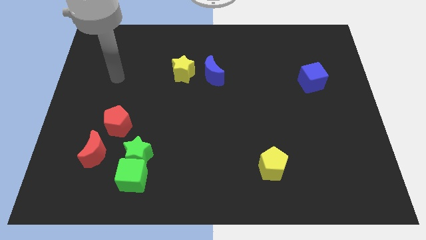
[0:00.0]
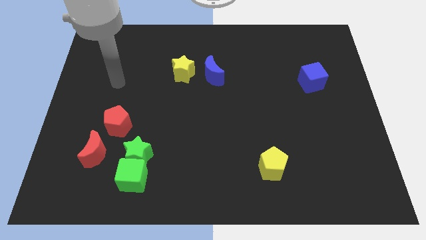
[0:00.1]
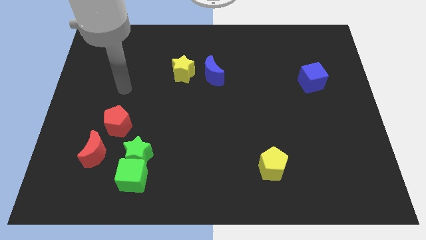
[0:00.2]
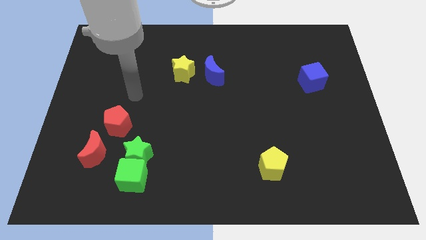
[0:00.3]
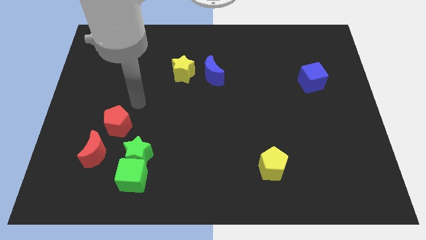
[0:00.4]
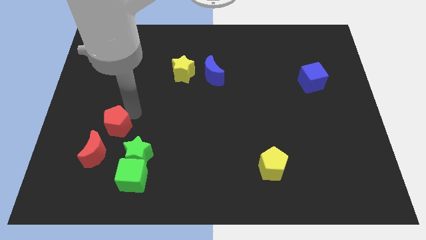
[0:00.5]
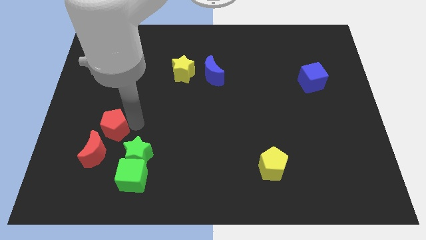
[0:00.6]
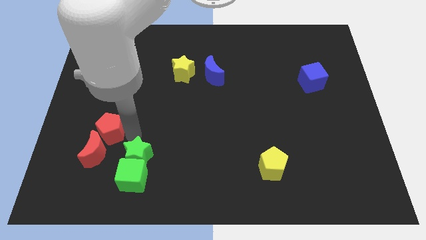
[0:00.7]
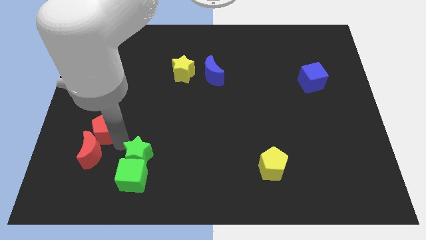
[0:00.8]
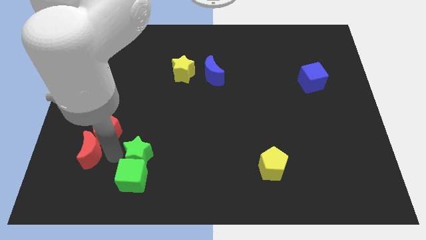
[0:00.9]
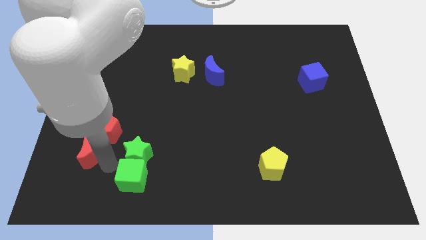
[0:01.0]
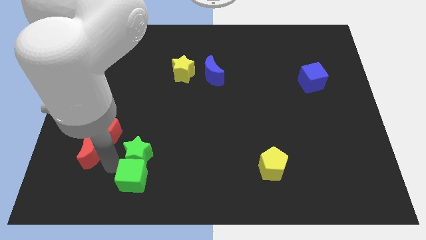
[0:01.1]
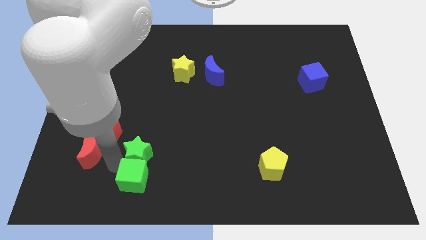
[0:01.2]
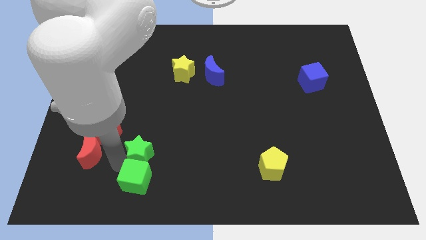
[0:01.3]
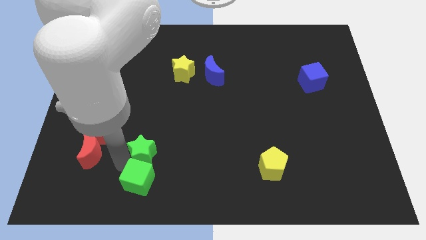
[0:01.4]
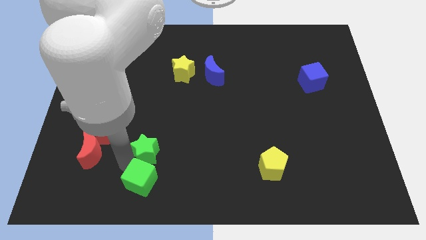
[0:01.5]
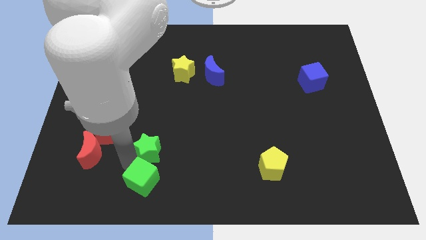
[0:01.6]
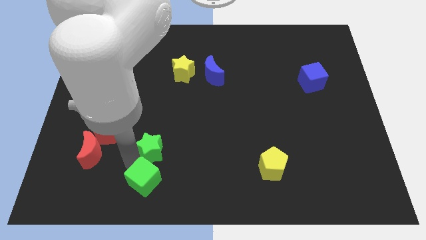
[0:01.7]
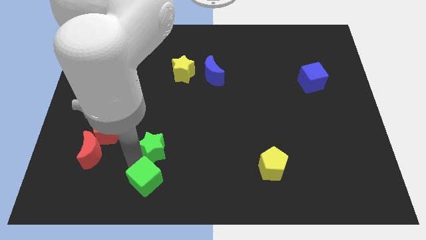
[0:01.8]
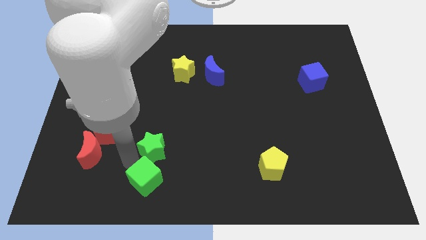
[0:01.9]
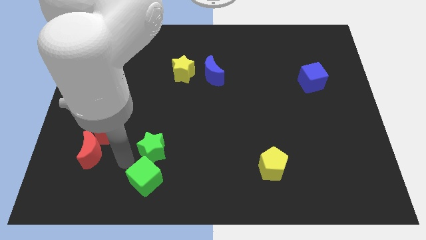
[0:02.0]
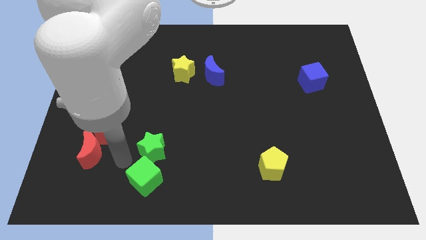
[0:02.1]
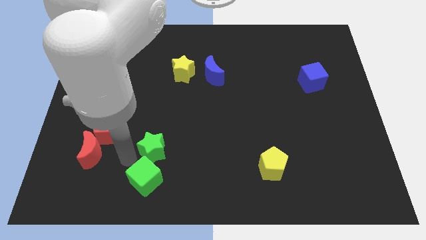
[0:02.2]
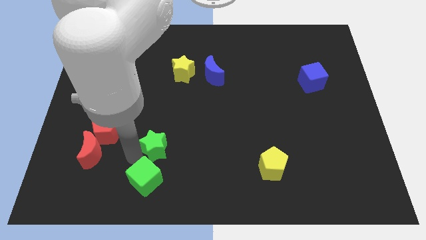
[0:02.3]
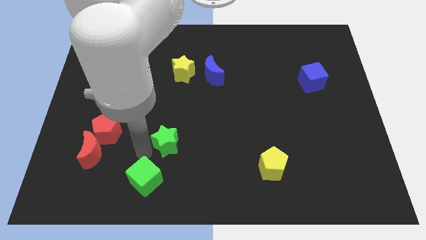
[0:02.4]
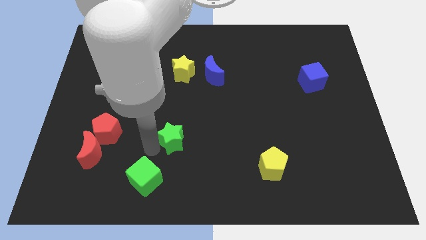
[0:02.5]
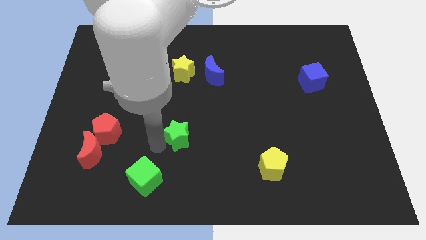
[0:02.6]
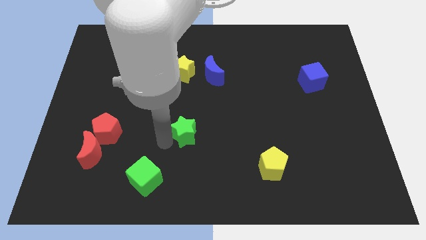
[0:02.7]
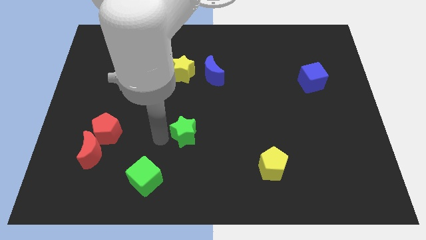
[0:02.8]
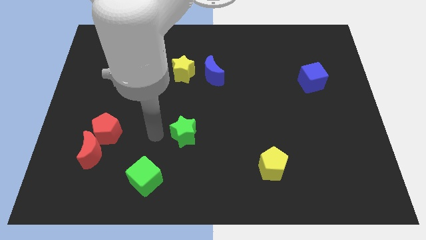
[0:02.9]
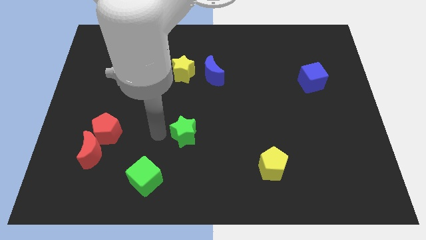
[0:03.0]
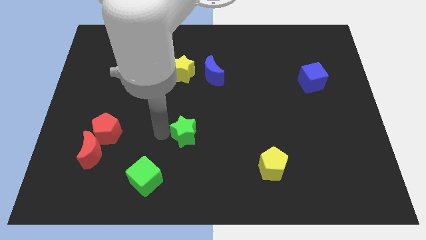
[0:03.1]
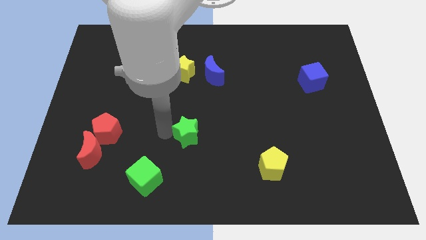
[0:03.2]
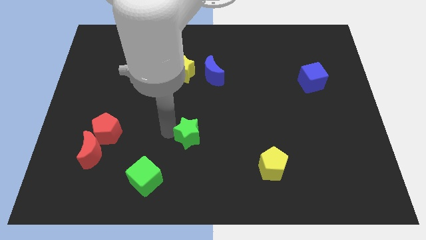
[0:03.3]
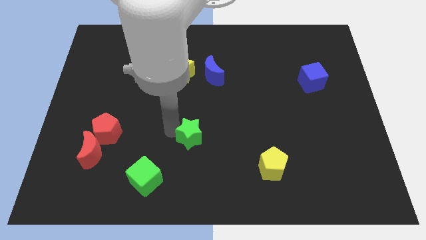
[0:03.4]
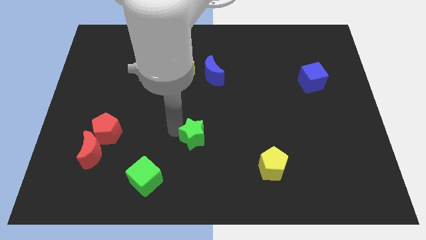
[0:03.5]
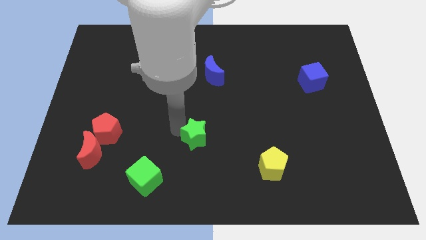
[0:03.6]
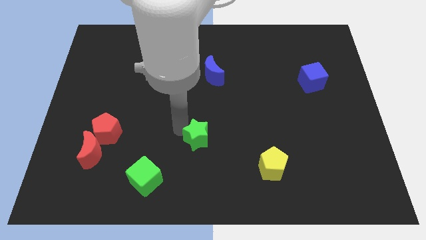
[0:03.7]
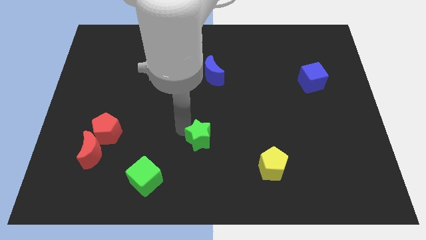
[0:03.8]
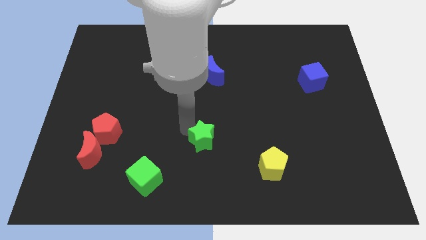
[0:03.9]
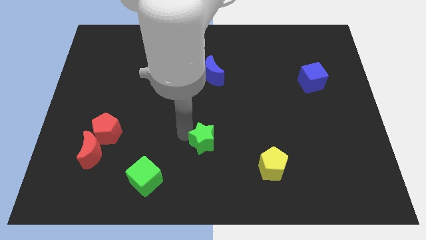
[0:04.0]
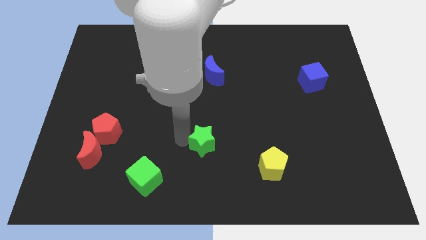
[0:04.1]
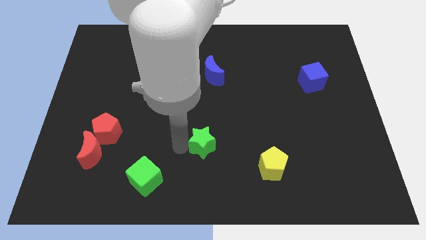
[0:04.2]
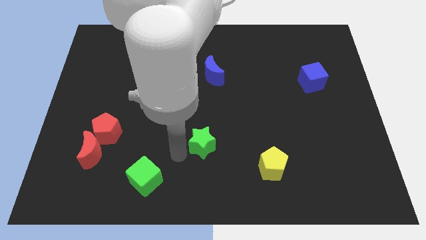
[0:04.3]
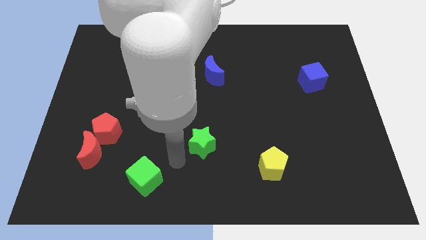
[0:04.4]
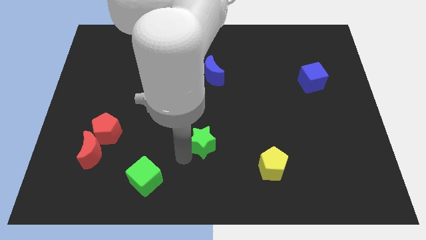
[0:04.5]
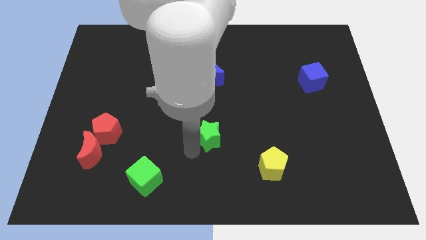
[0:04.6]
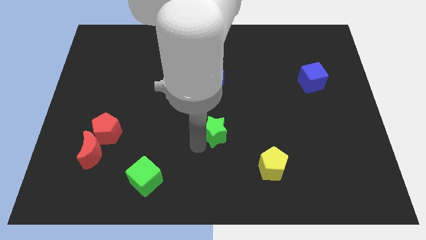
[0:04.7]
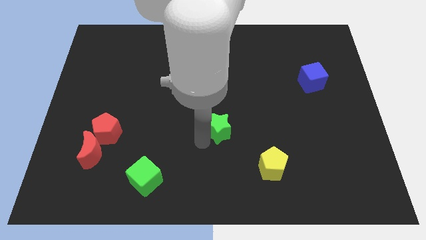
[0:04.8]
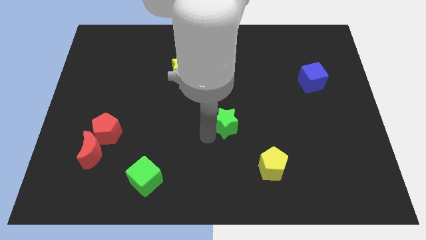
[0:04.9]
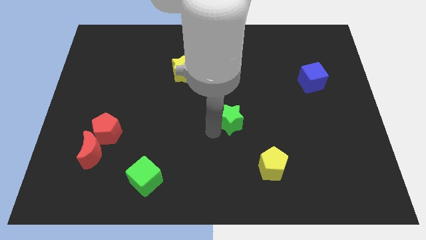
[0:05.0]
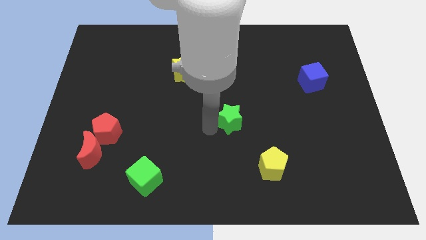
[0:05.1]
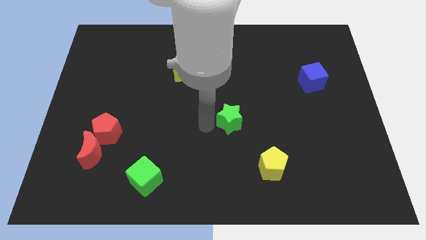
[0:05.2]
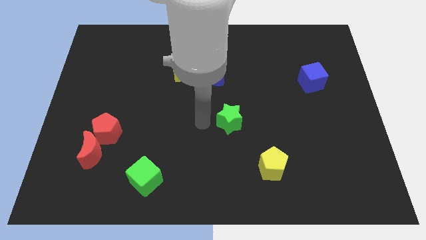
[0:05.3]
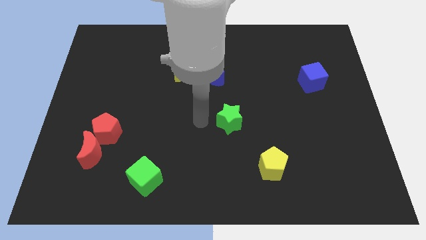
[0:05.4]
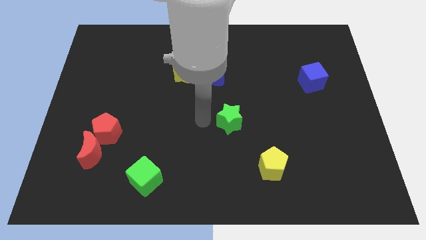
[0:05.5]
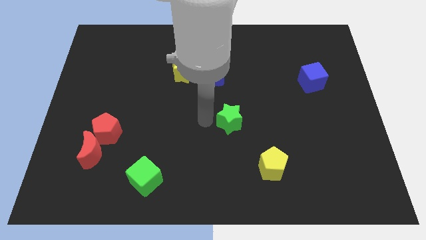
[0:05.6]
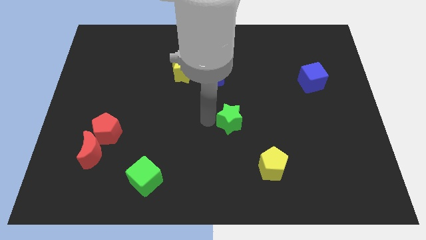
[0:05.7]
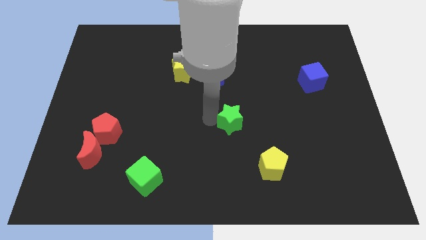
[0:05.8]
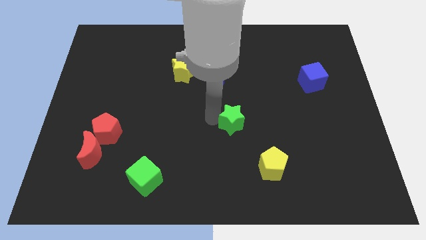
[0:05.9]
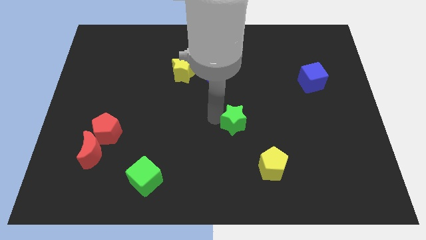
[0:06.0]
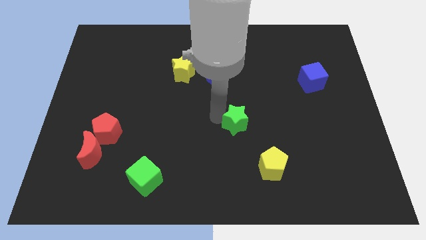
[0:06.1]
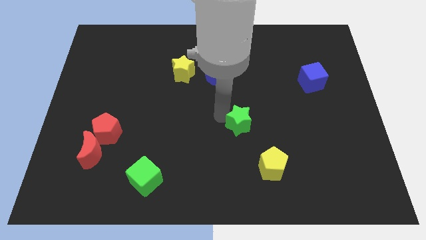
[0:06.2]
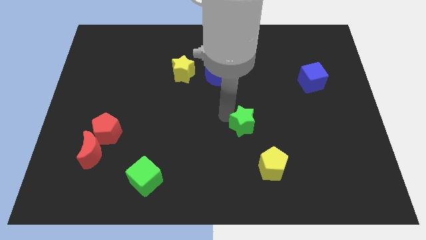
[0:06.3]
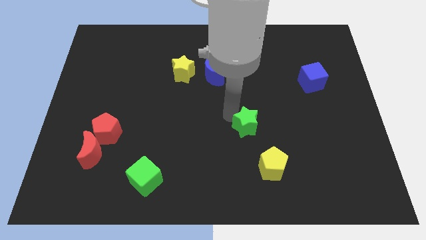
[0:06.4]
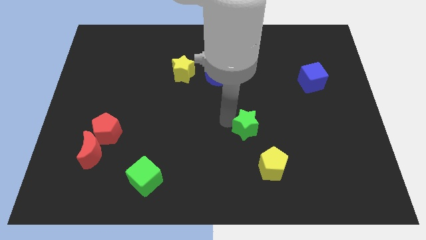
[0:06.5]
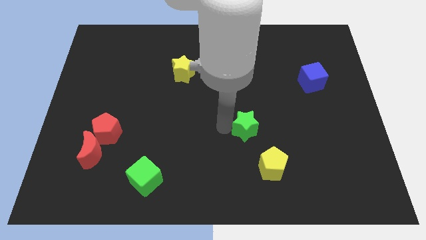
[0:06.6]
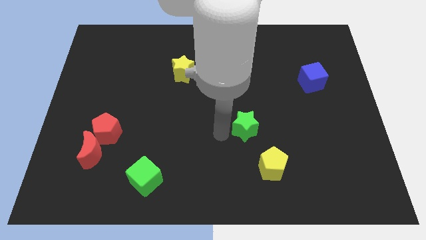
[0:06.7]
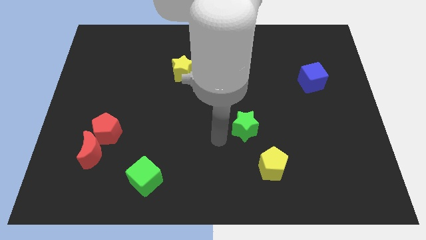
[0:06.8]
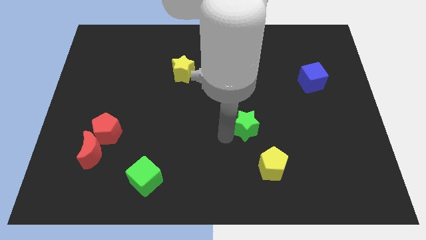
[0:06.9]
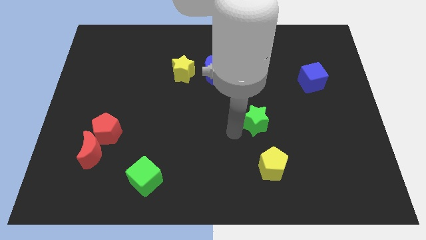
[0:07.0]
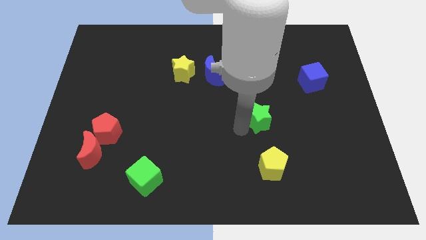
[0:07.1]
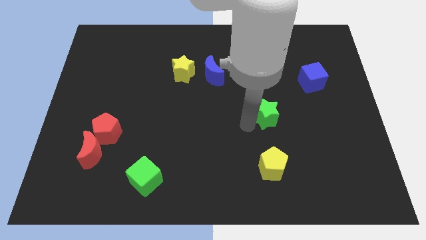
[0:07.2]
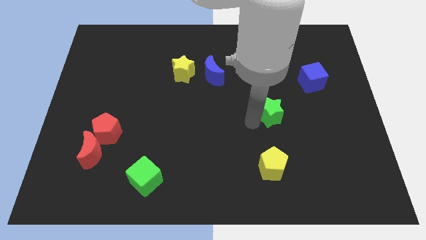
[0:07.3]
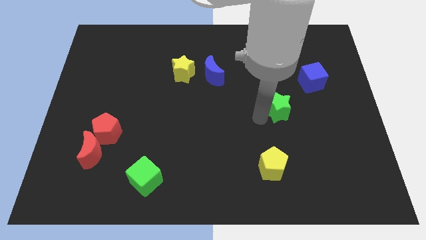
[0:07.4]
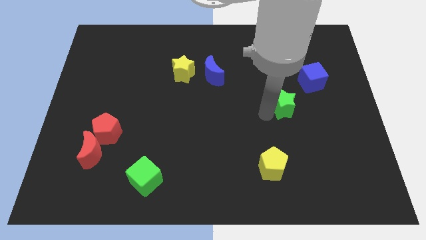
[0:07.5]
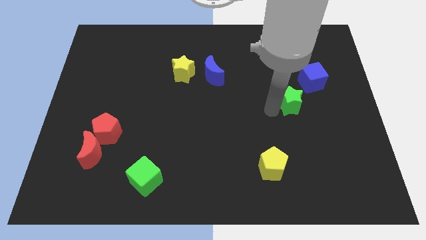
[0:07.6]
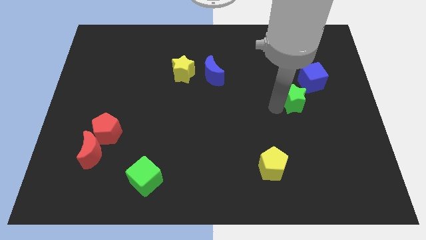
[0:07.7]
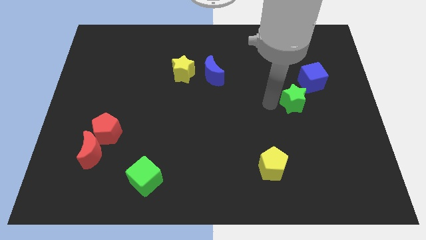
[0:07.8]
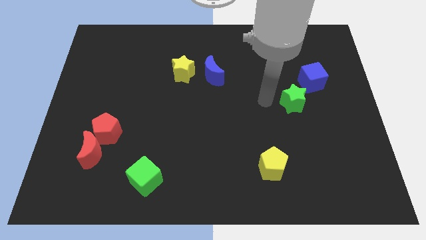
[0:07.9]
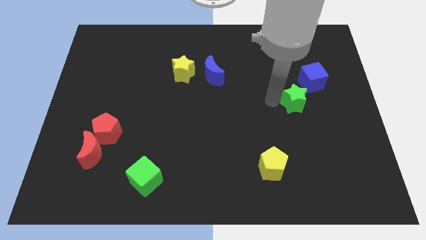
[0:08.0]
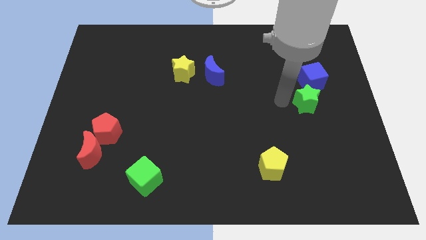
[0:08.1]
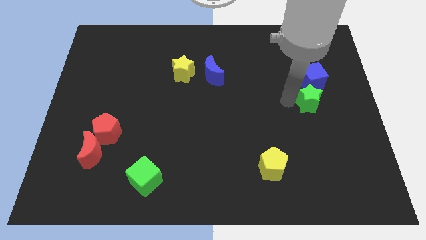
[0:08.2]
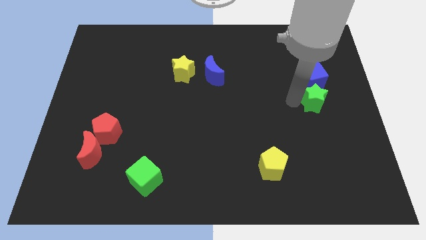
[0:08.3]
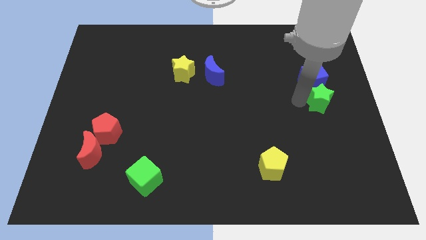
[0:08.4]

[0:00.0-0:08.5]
put the green star to the right side
